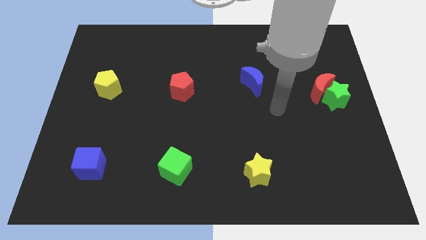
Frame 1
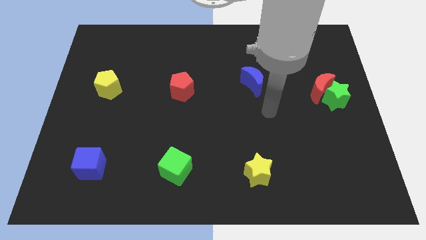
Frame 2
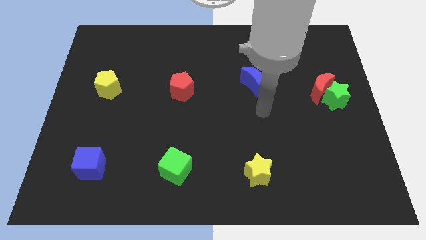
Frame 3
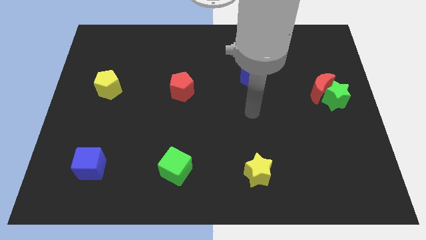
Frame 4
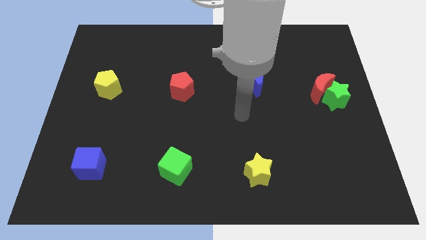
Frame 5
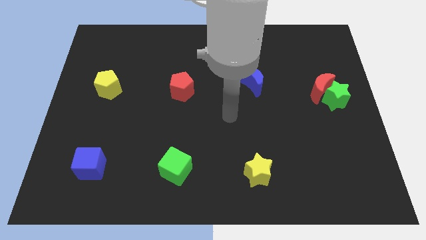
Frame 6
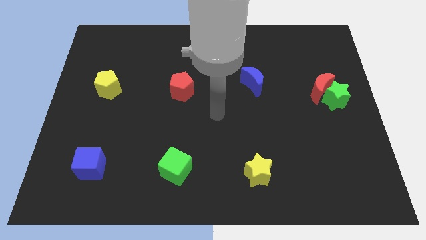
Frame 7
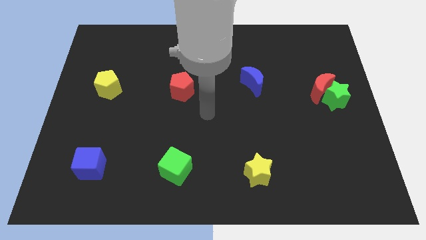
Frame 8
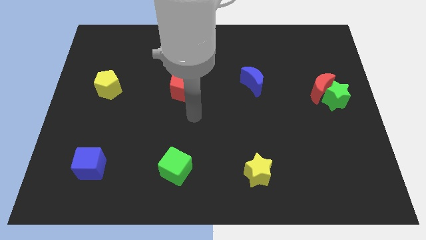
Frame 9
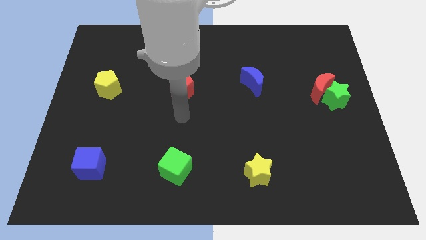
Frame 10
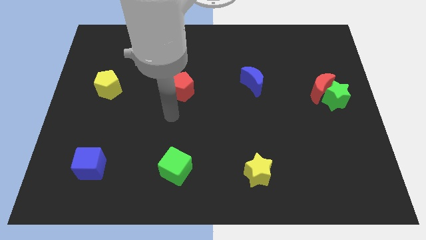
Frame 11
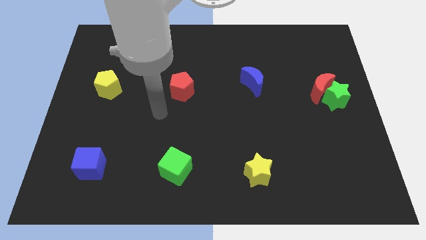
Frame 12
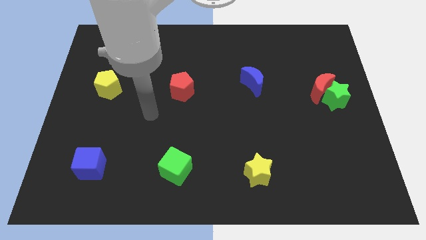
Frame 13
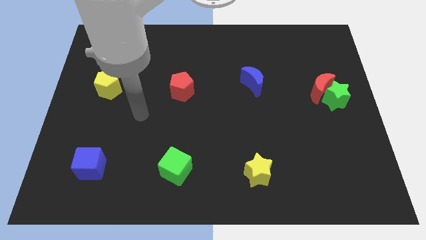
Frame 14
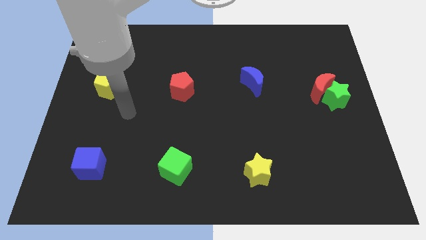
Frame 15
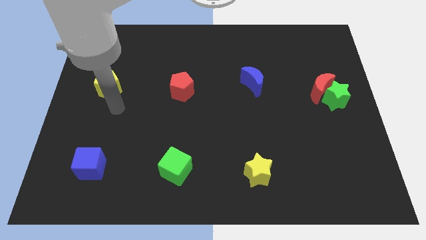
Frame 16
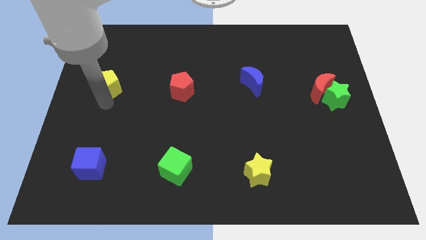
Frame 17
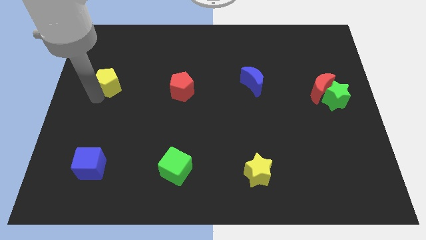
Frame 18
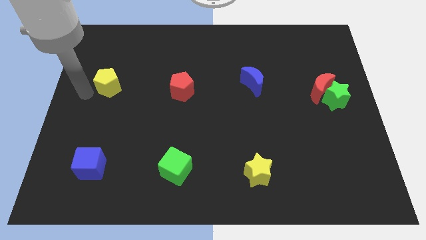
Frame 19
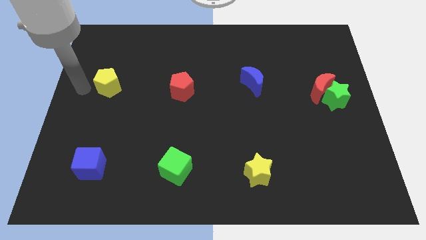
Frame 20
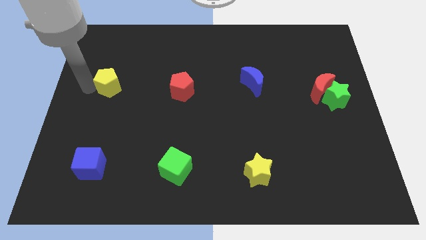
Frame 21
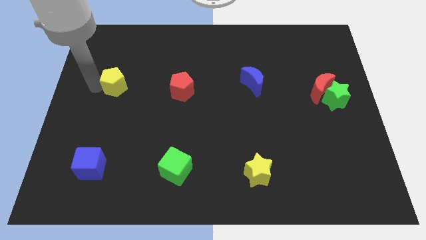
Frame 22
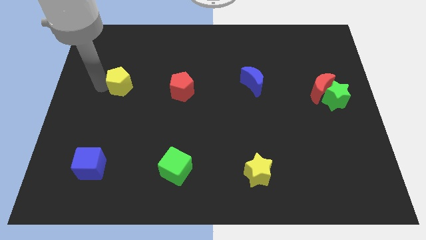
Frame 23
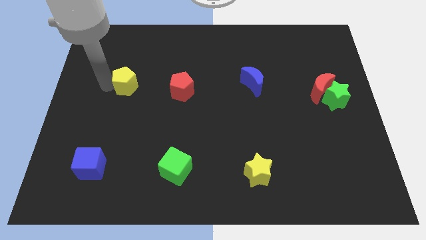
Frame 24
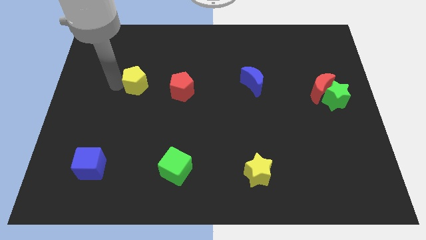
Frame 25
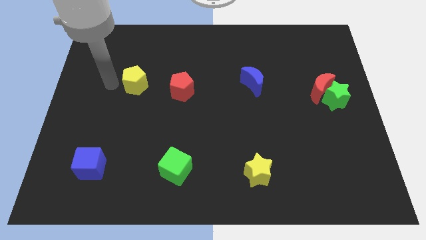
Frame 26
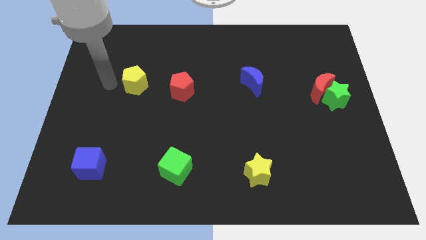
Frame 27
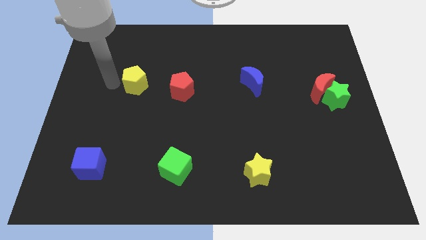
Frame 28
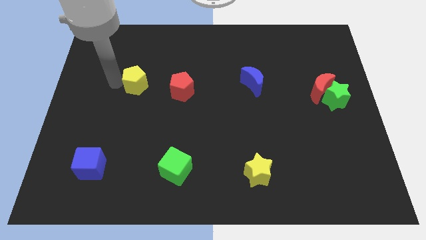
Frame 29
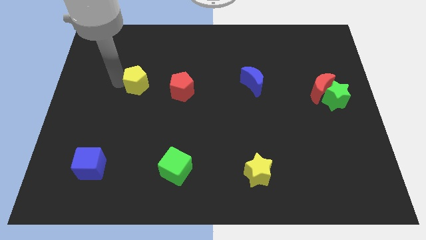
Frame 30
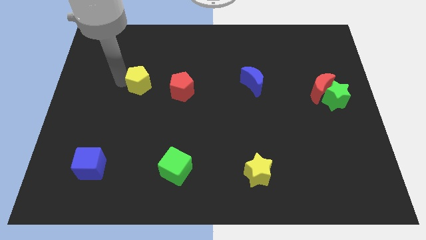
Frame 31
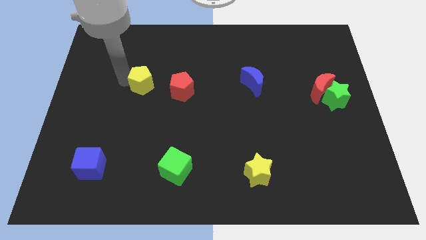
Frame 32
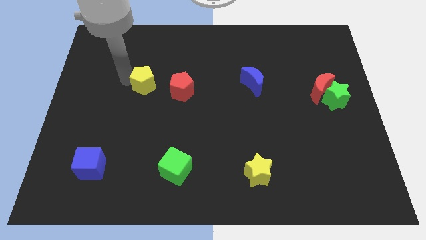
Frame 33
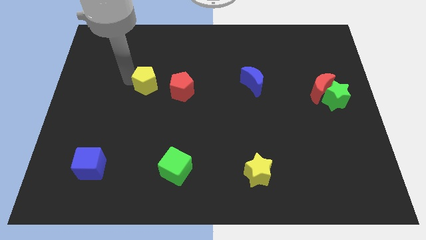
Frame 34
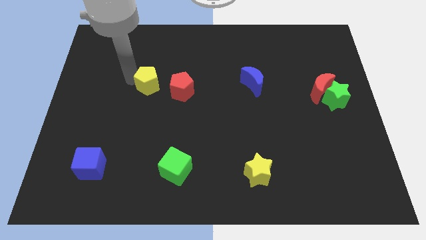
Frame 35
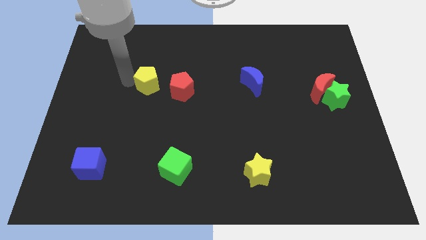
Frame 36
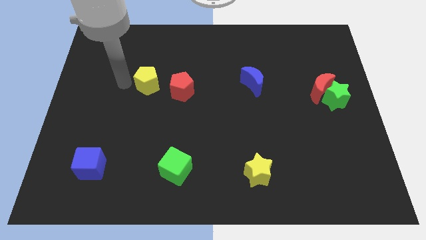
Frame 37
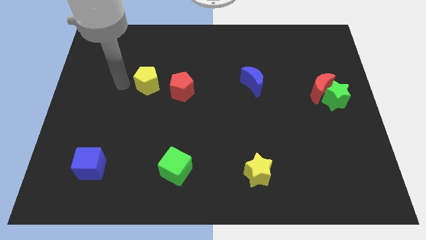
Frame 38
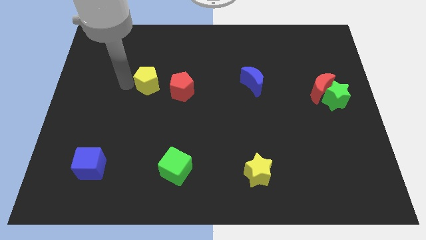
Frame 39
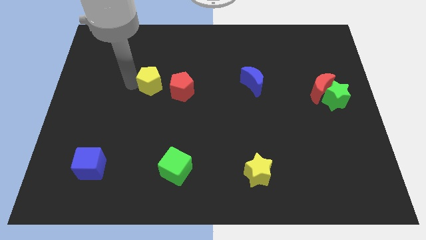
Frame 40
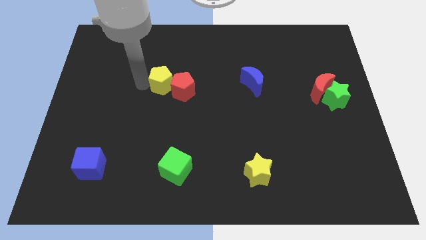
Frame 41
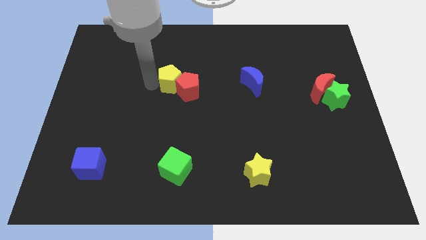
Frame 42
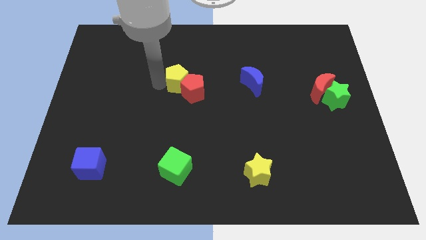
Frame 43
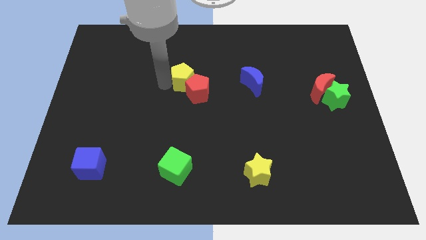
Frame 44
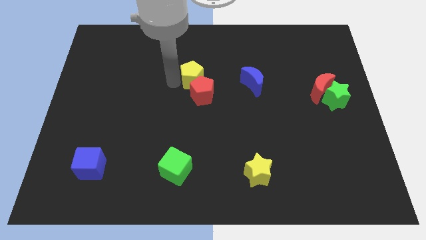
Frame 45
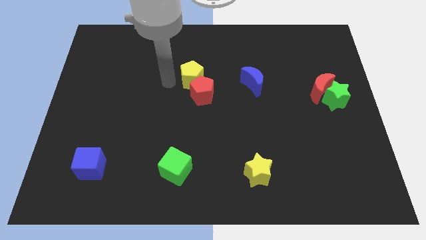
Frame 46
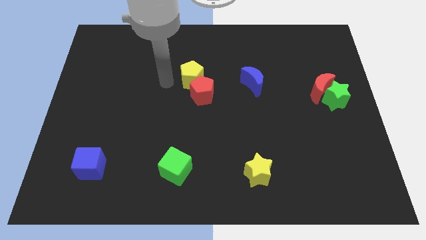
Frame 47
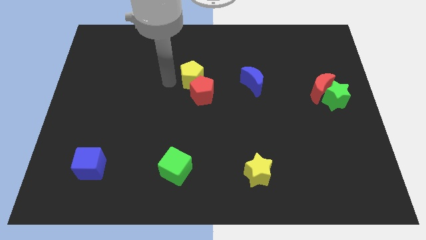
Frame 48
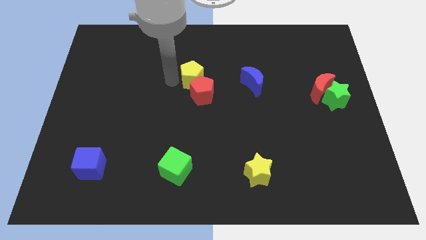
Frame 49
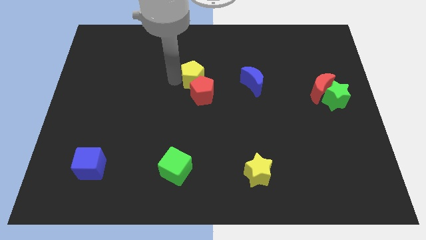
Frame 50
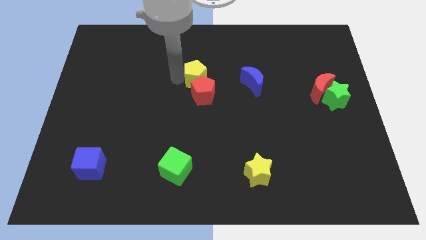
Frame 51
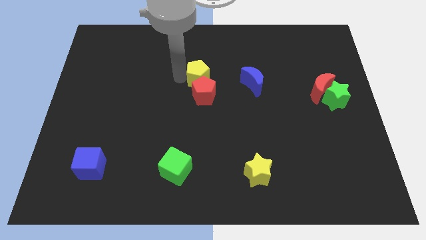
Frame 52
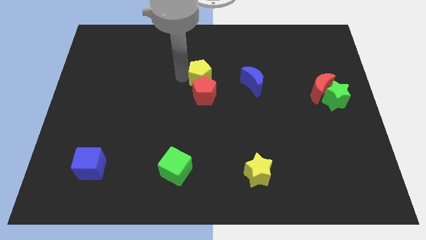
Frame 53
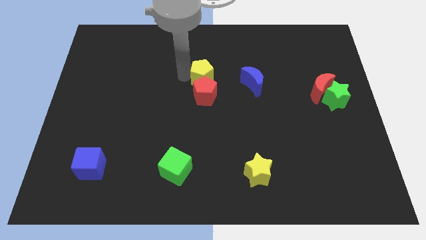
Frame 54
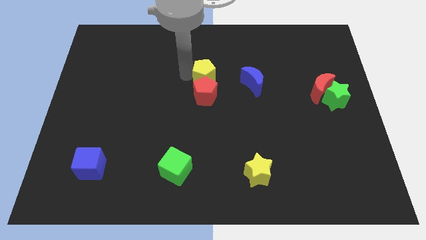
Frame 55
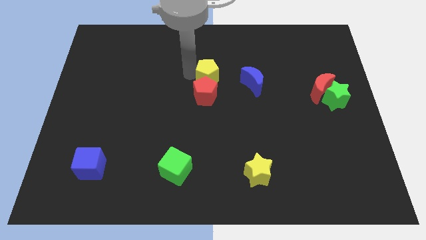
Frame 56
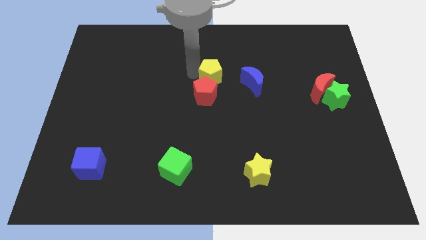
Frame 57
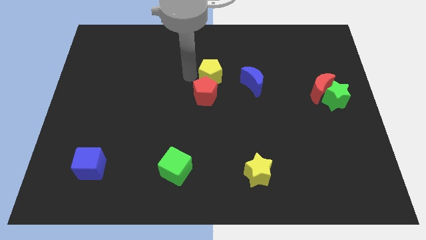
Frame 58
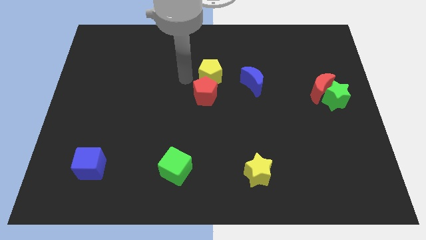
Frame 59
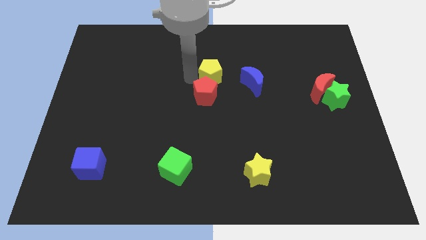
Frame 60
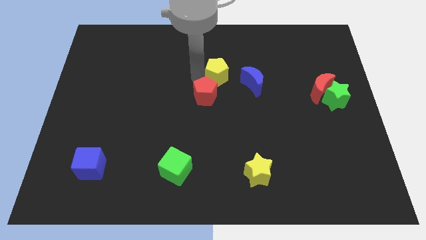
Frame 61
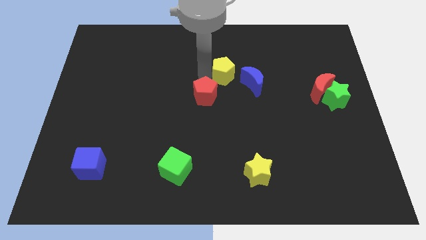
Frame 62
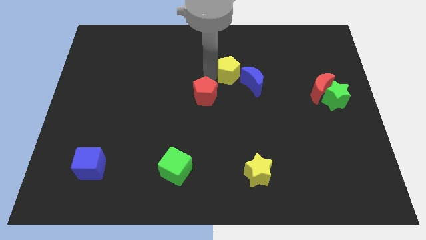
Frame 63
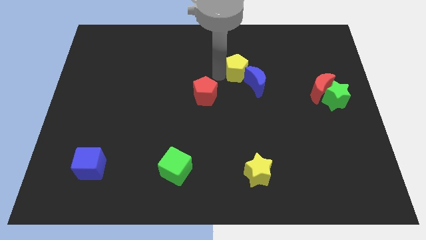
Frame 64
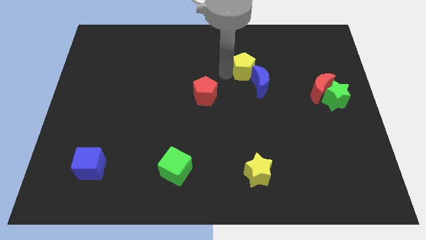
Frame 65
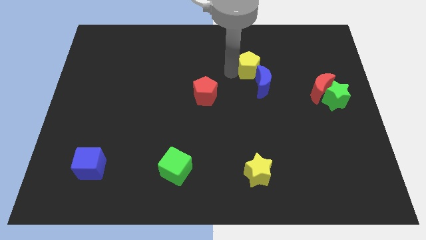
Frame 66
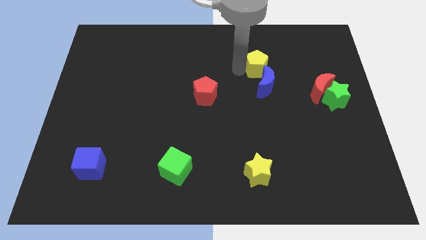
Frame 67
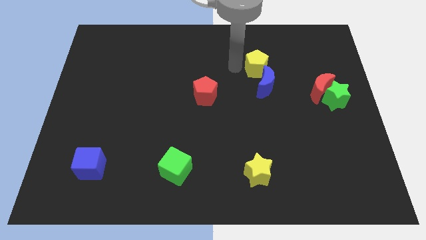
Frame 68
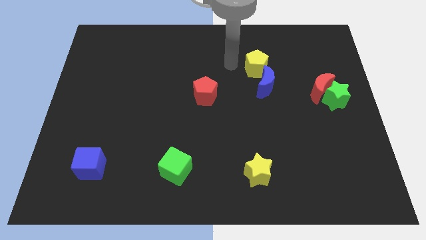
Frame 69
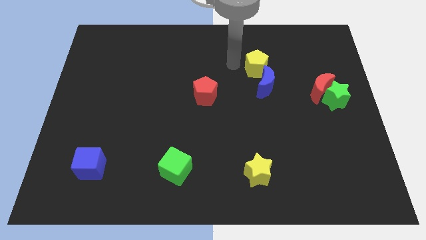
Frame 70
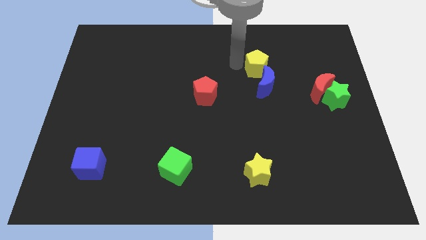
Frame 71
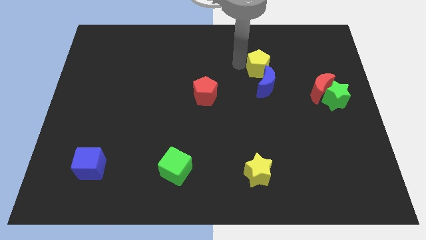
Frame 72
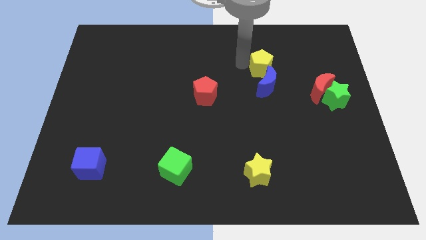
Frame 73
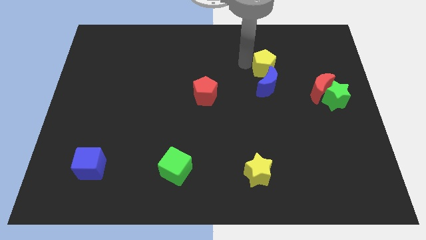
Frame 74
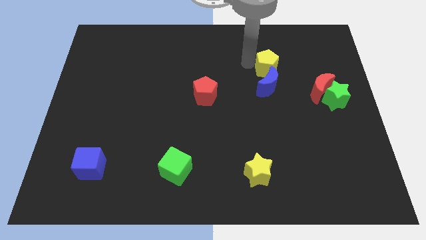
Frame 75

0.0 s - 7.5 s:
move the yellow pentagon to the top right side of the blue moon
